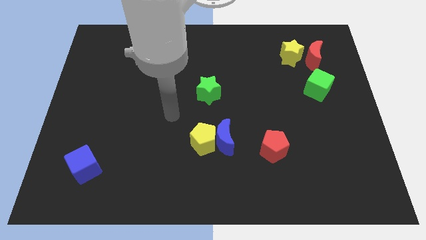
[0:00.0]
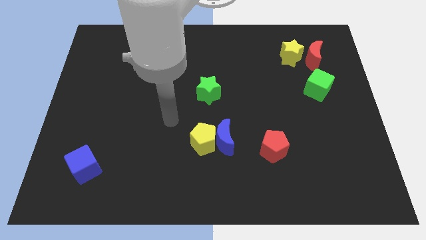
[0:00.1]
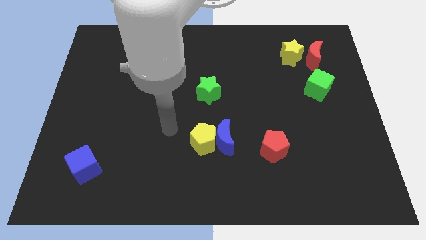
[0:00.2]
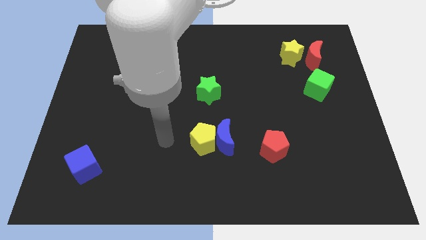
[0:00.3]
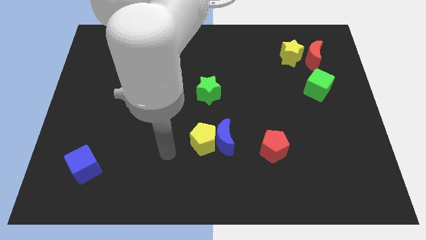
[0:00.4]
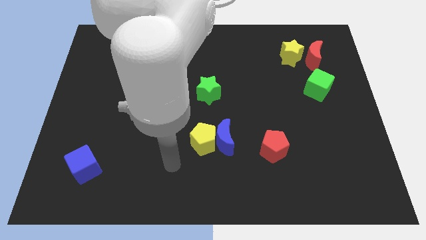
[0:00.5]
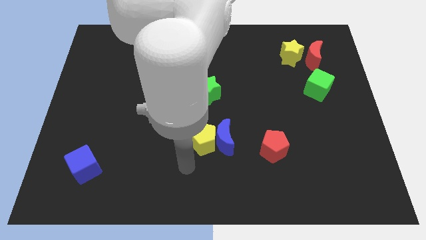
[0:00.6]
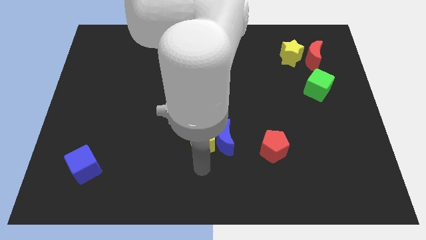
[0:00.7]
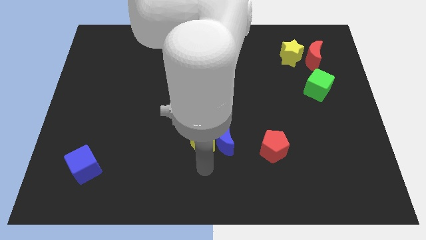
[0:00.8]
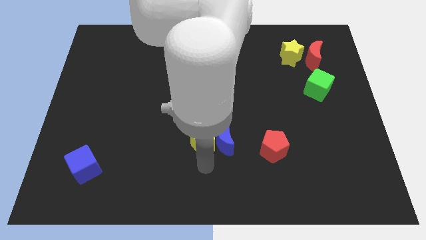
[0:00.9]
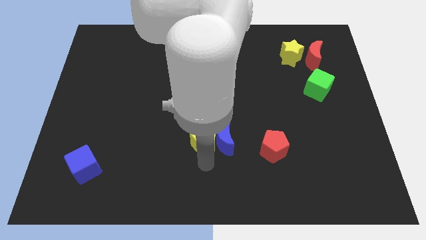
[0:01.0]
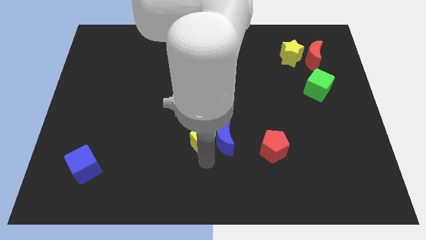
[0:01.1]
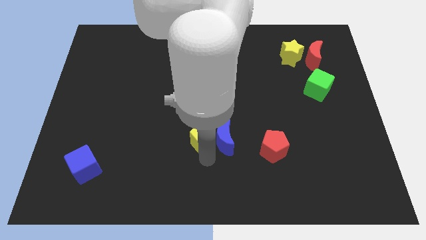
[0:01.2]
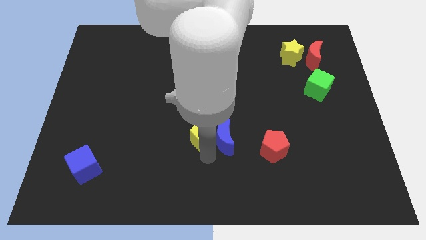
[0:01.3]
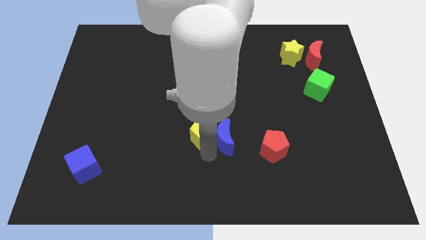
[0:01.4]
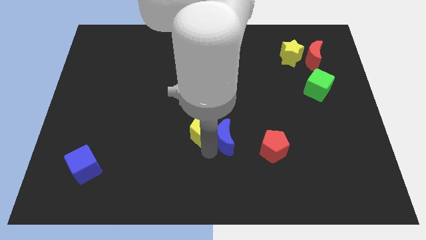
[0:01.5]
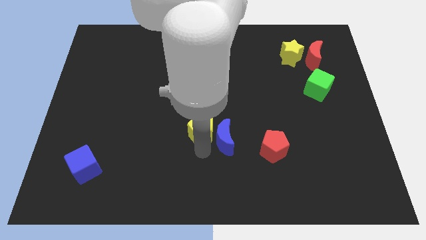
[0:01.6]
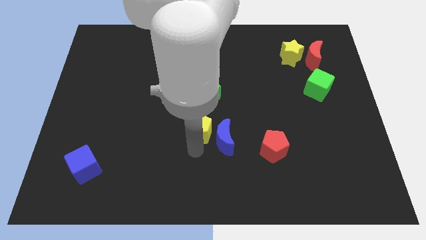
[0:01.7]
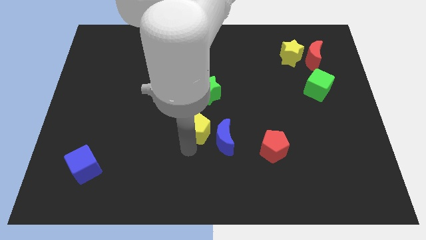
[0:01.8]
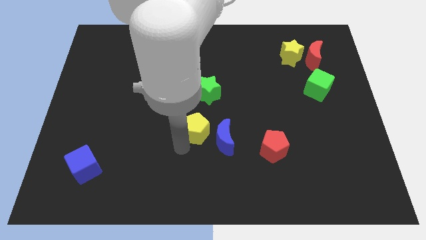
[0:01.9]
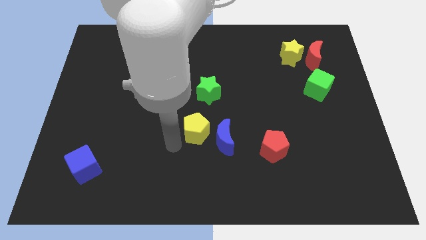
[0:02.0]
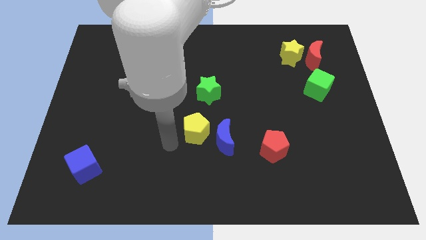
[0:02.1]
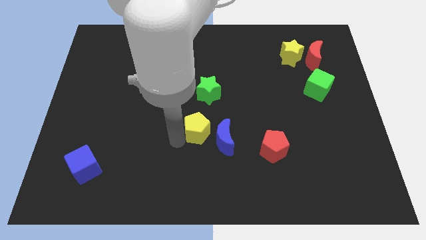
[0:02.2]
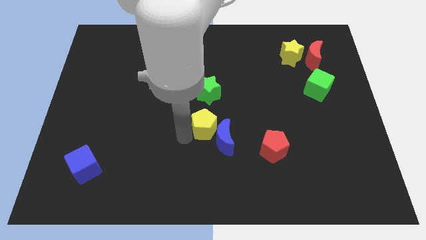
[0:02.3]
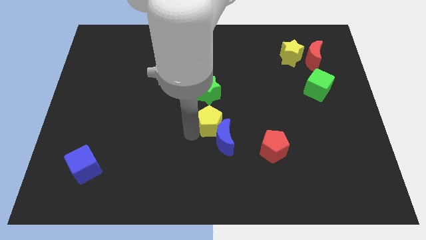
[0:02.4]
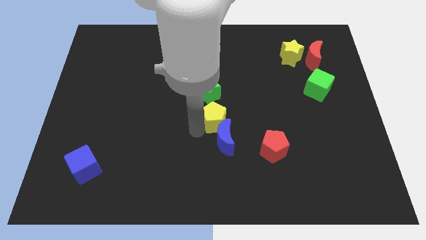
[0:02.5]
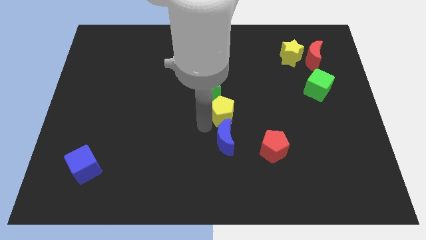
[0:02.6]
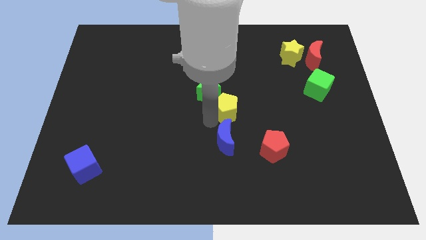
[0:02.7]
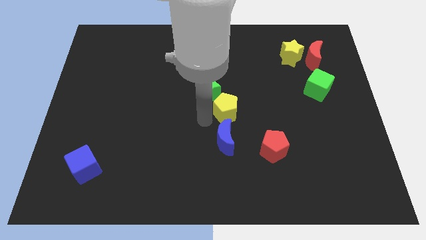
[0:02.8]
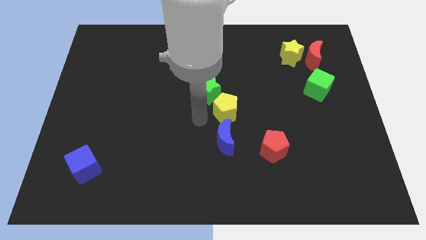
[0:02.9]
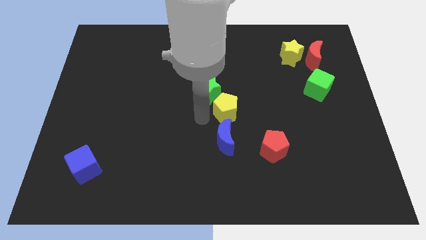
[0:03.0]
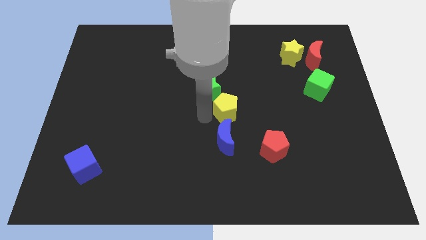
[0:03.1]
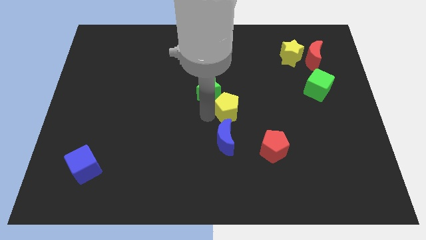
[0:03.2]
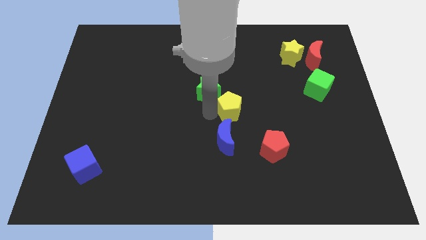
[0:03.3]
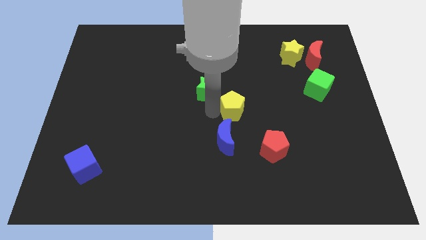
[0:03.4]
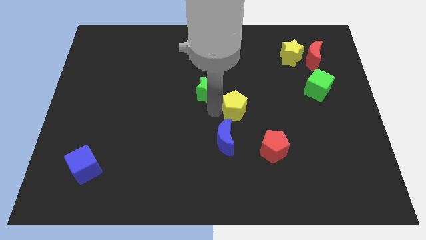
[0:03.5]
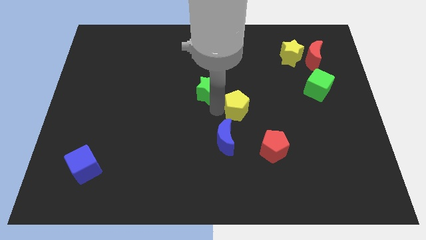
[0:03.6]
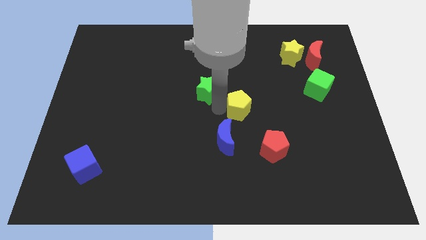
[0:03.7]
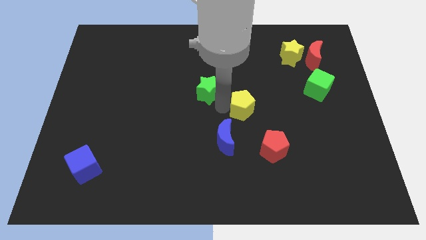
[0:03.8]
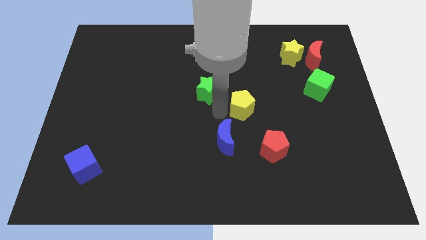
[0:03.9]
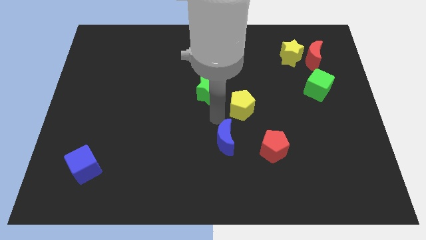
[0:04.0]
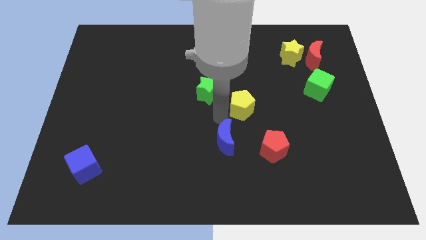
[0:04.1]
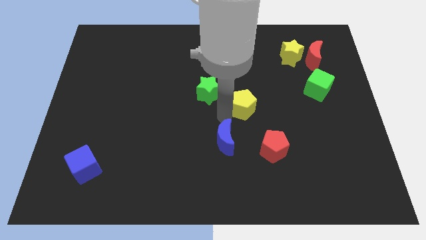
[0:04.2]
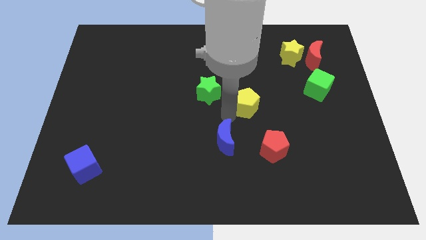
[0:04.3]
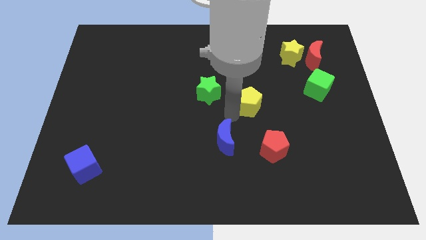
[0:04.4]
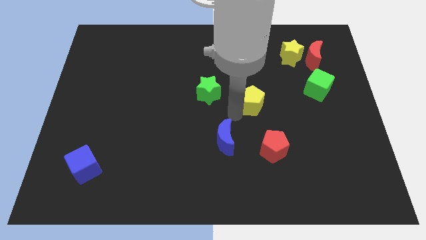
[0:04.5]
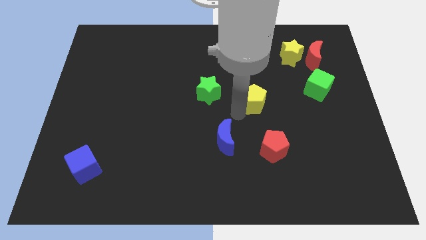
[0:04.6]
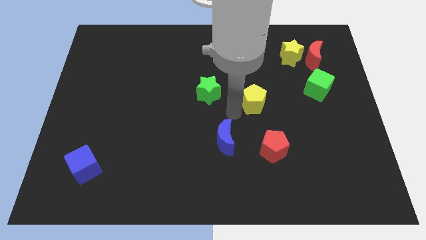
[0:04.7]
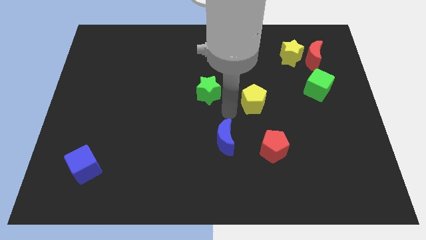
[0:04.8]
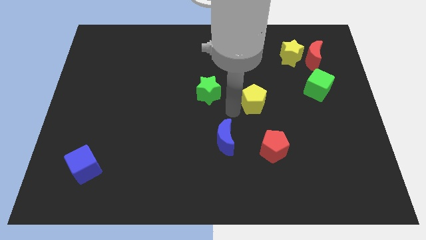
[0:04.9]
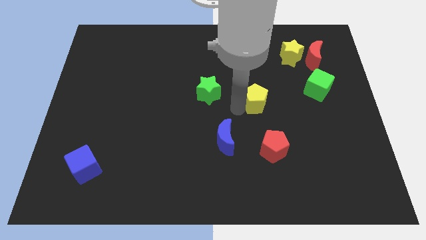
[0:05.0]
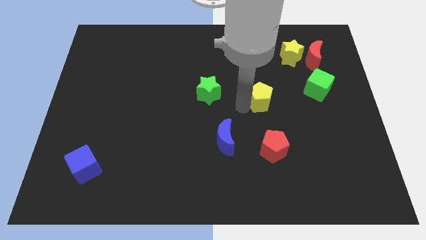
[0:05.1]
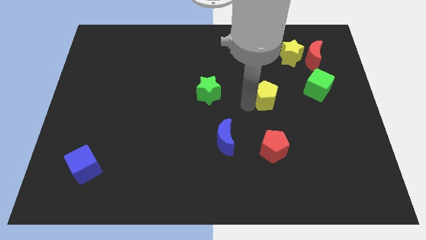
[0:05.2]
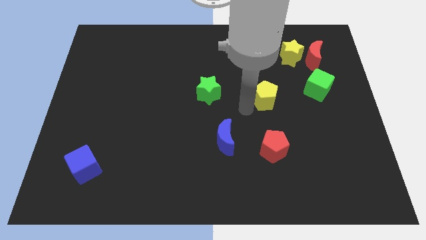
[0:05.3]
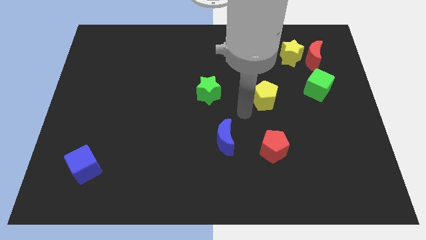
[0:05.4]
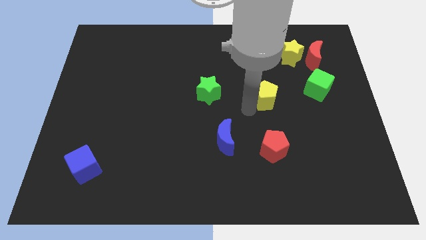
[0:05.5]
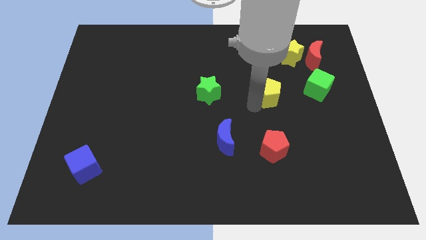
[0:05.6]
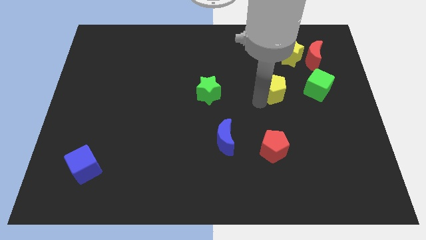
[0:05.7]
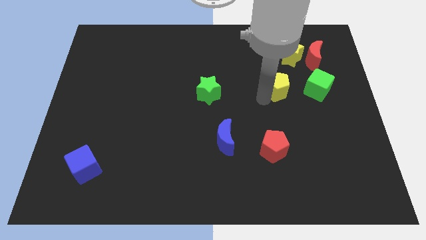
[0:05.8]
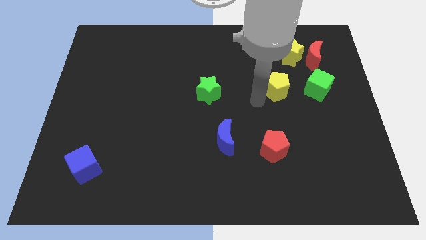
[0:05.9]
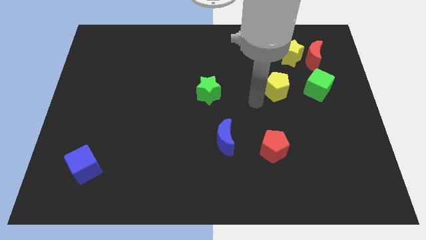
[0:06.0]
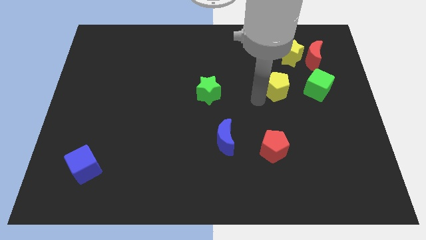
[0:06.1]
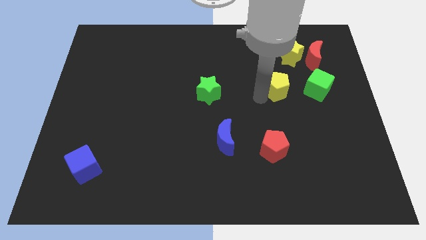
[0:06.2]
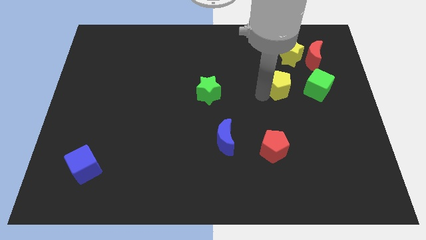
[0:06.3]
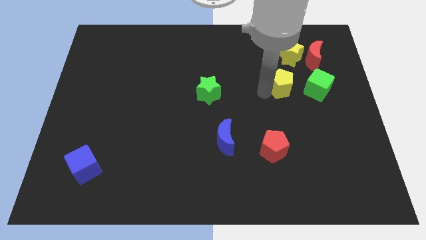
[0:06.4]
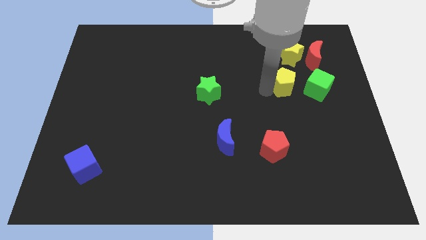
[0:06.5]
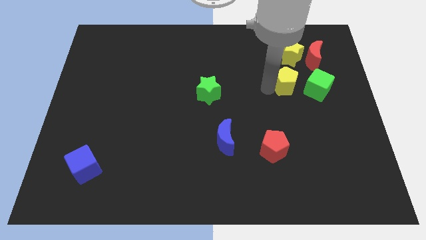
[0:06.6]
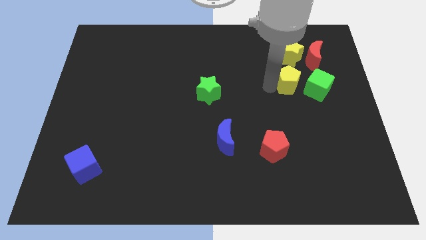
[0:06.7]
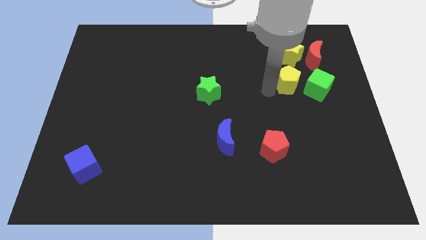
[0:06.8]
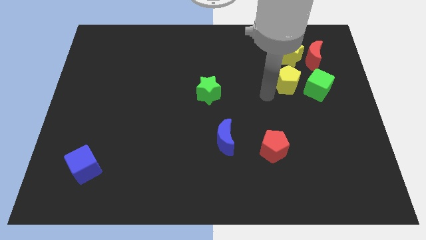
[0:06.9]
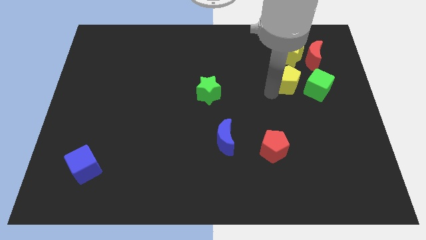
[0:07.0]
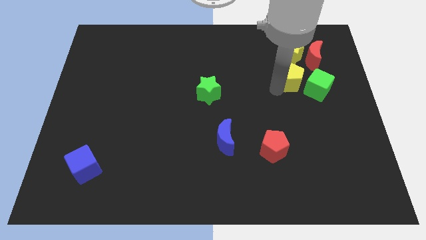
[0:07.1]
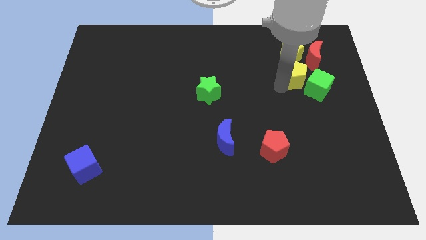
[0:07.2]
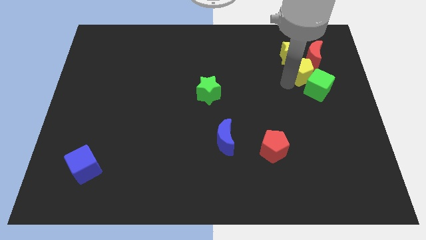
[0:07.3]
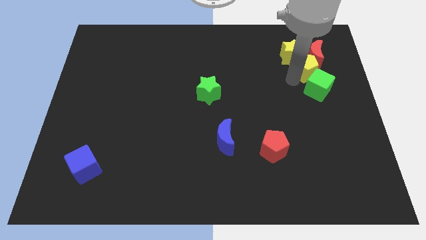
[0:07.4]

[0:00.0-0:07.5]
push the yellow pentagon towards the red moon
